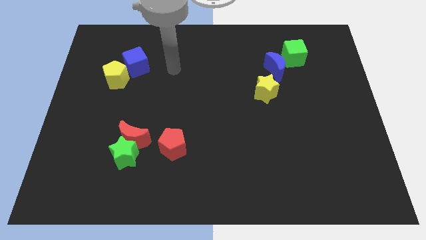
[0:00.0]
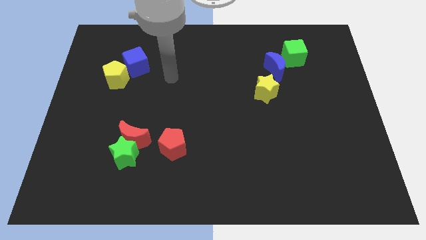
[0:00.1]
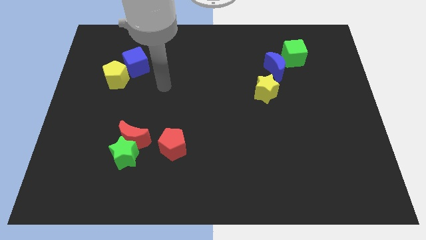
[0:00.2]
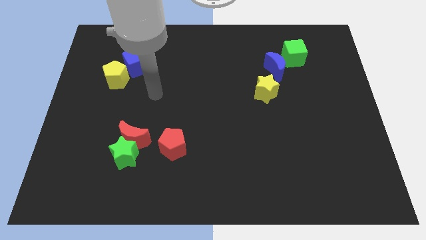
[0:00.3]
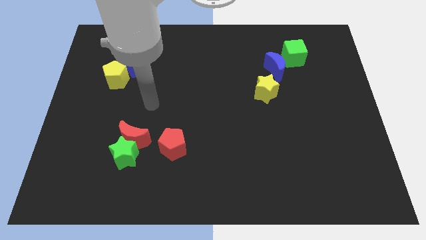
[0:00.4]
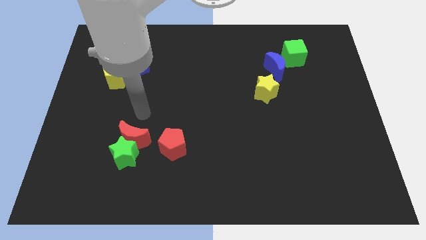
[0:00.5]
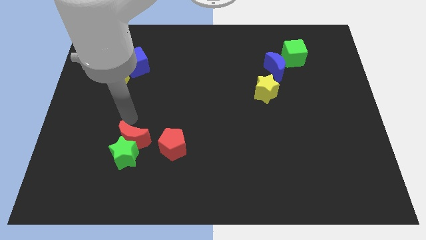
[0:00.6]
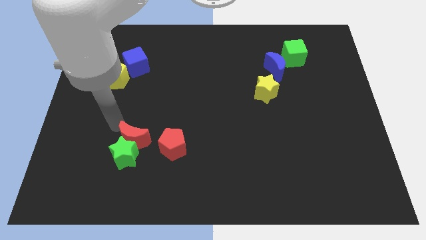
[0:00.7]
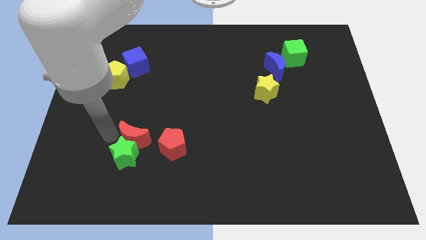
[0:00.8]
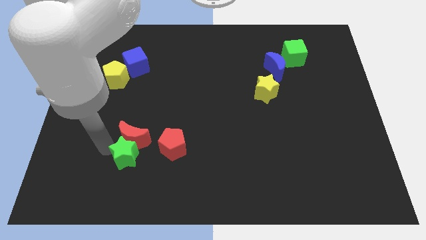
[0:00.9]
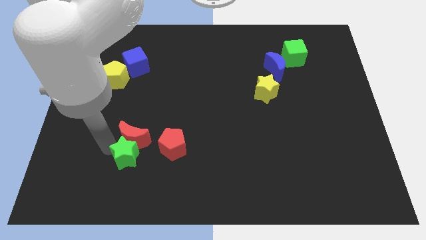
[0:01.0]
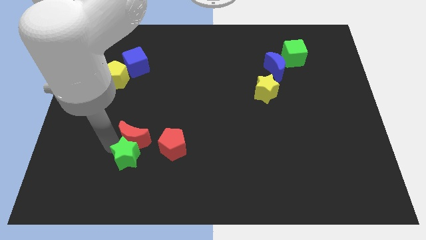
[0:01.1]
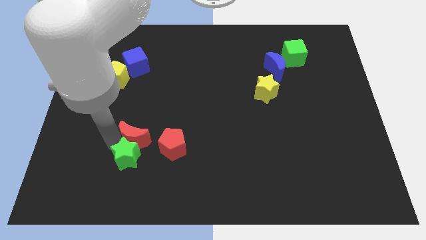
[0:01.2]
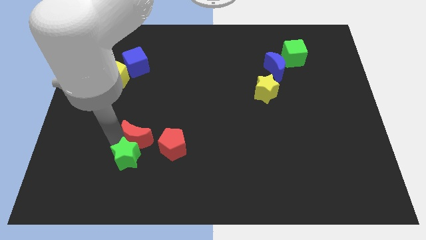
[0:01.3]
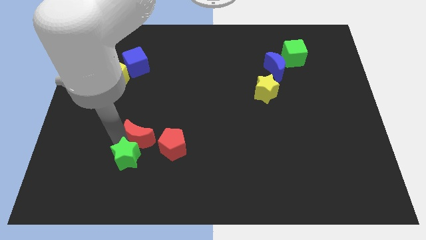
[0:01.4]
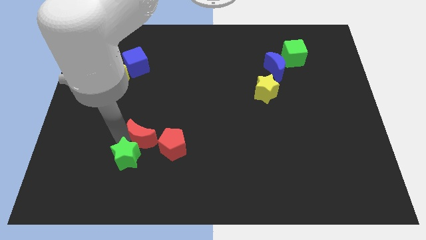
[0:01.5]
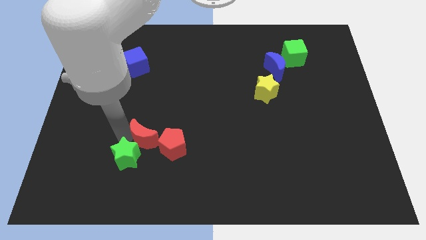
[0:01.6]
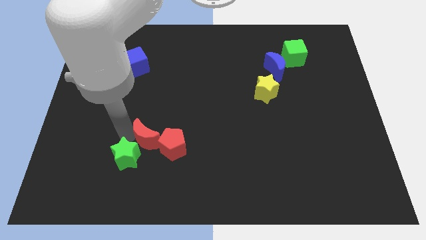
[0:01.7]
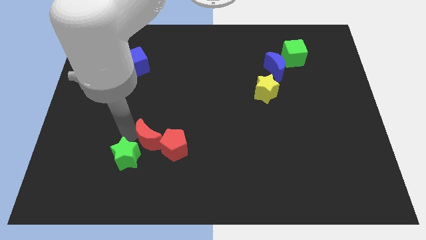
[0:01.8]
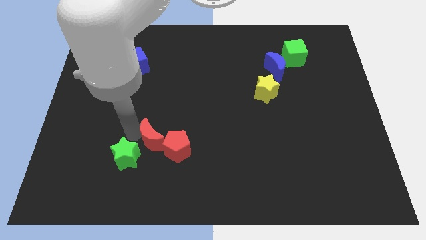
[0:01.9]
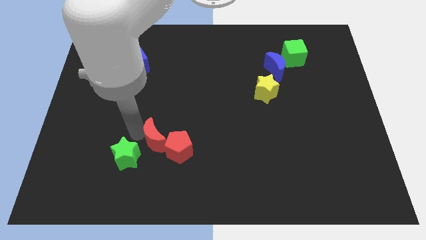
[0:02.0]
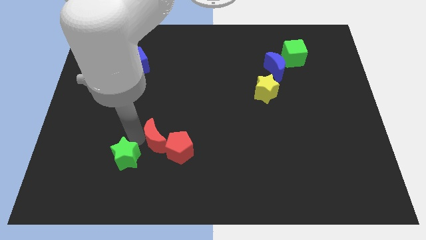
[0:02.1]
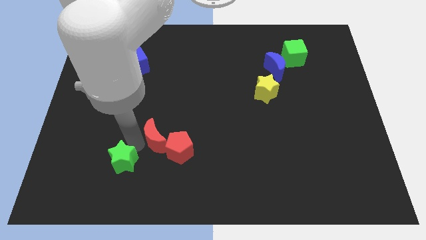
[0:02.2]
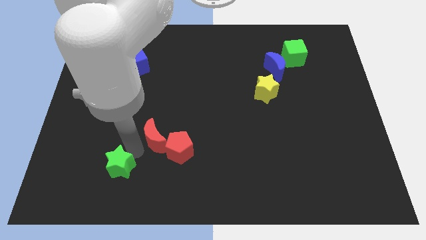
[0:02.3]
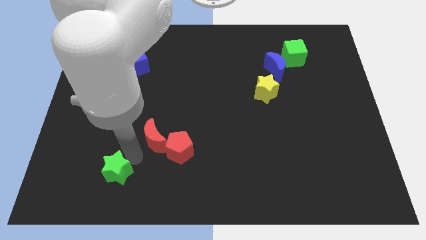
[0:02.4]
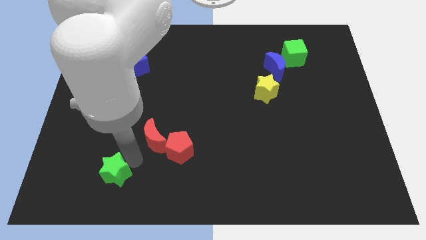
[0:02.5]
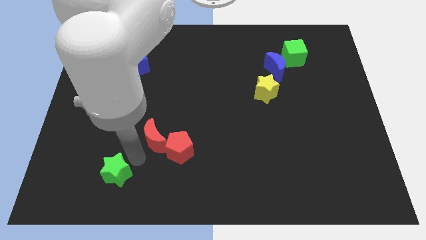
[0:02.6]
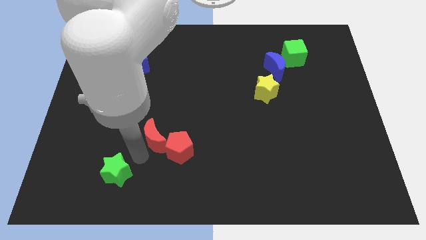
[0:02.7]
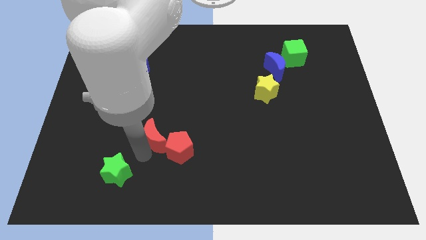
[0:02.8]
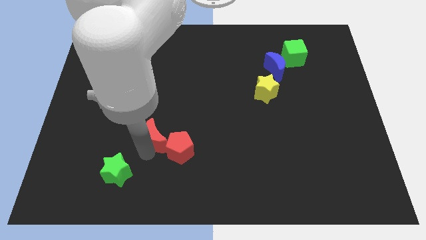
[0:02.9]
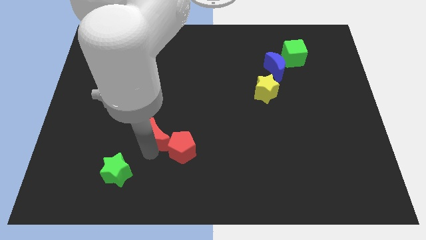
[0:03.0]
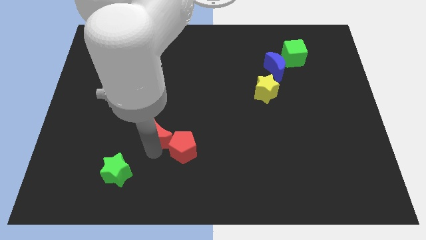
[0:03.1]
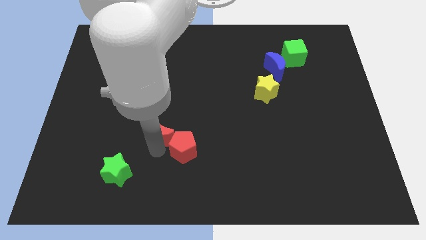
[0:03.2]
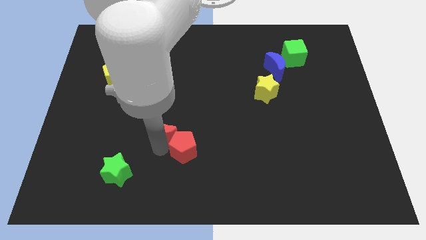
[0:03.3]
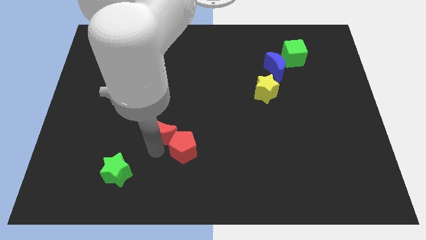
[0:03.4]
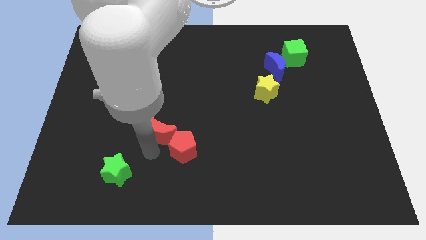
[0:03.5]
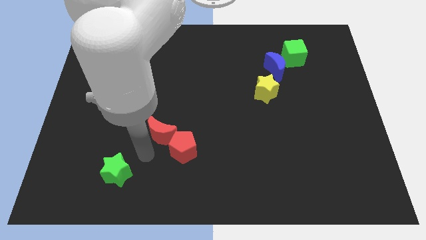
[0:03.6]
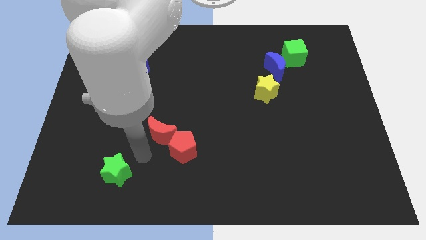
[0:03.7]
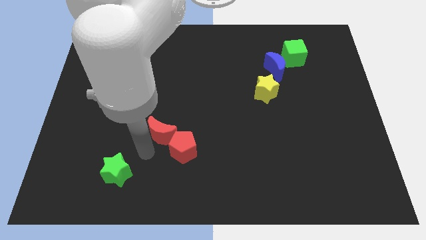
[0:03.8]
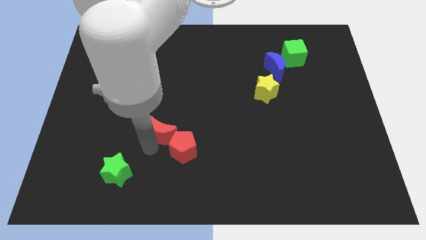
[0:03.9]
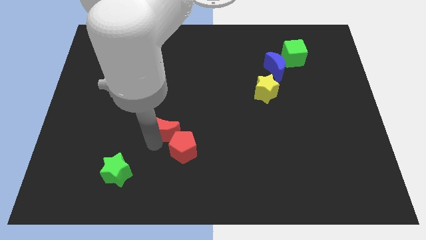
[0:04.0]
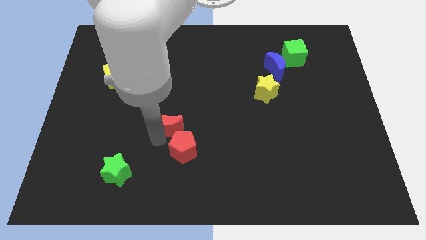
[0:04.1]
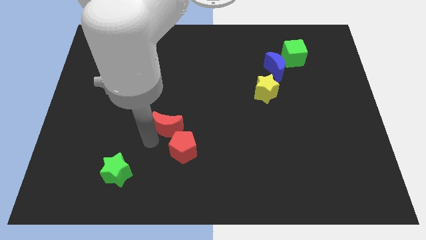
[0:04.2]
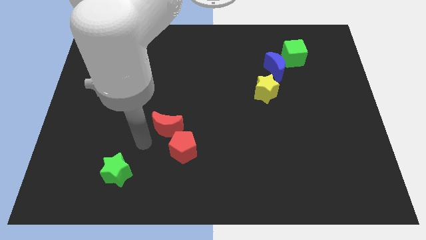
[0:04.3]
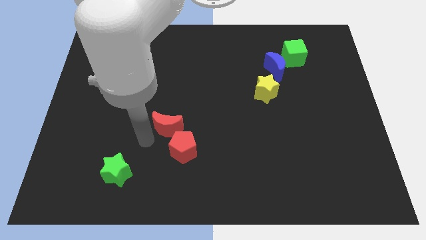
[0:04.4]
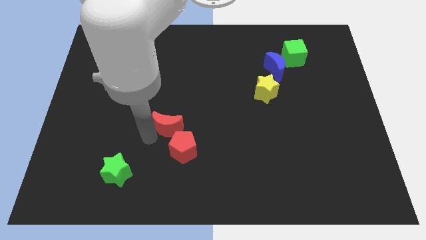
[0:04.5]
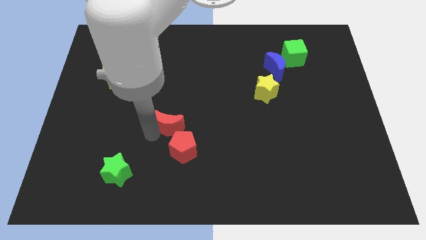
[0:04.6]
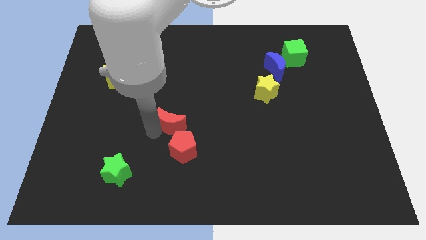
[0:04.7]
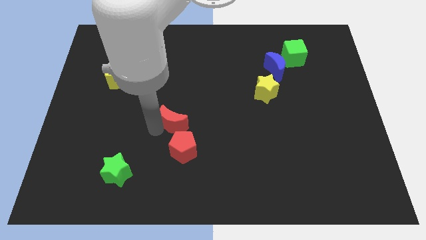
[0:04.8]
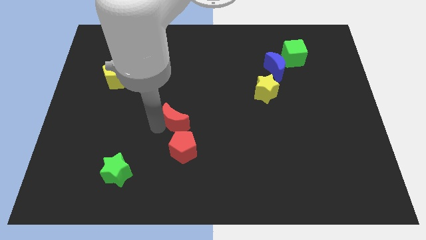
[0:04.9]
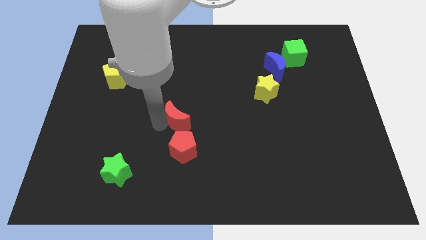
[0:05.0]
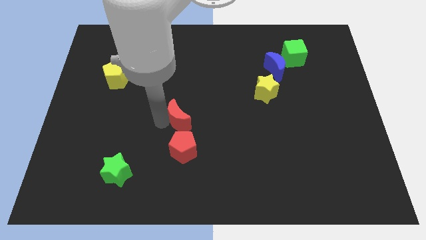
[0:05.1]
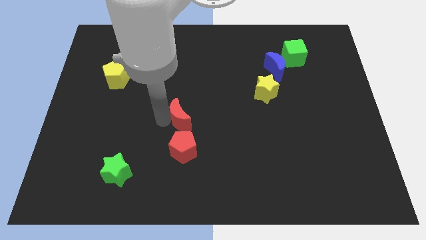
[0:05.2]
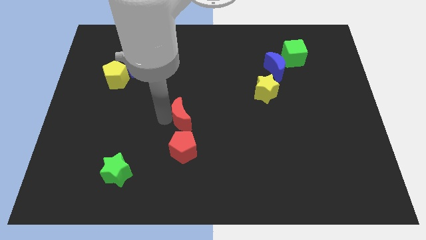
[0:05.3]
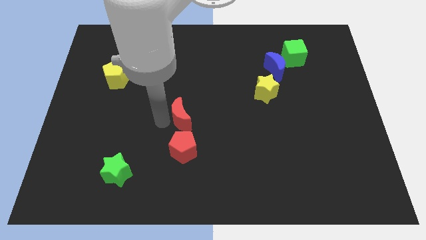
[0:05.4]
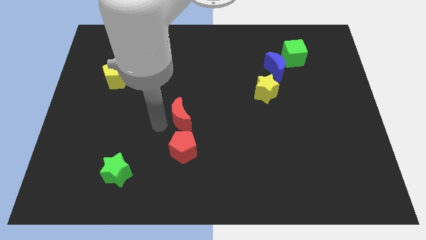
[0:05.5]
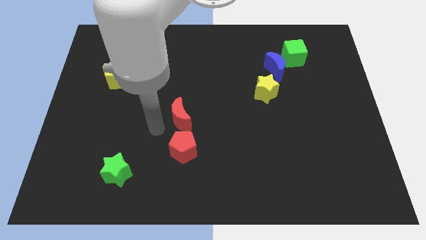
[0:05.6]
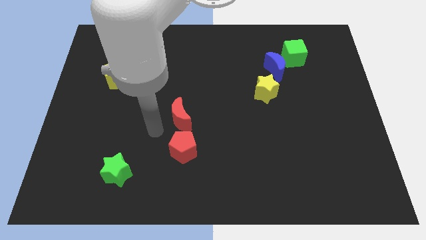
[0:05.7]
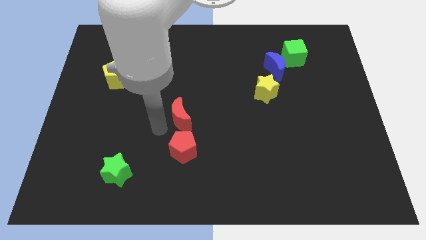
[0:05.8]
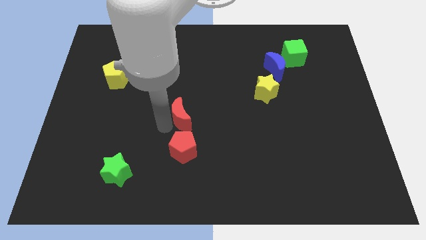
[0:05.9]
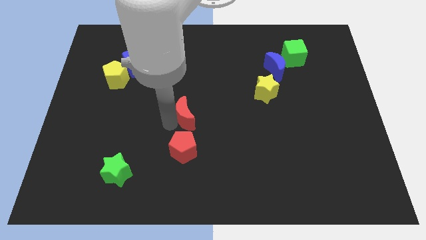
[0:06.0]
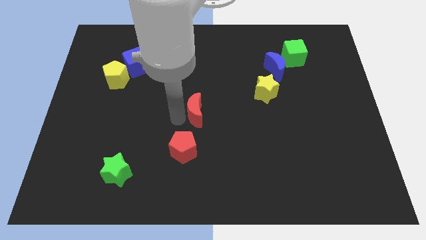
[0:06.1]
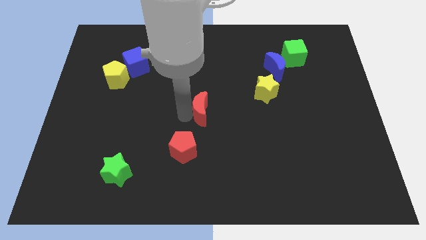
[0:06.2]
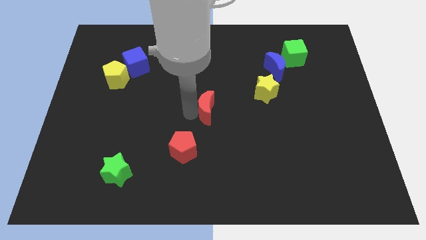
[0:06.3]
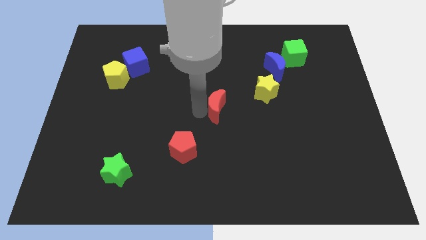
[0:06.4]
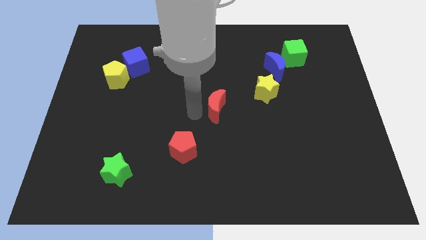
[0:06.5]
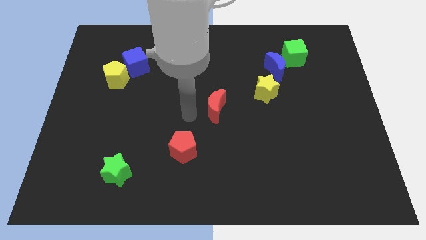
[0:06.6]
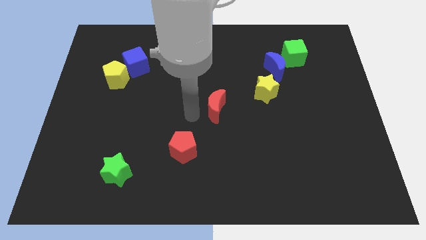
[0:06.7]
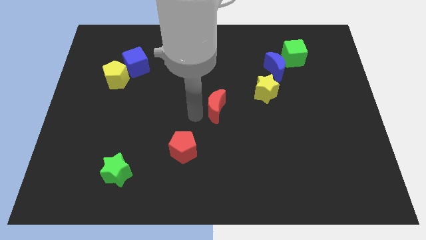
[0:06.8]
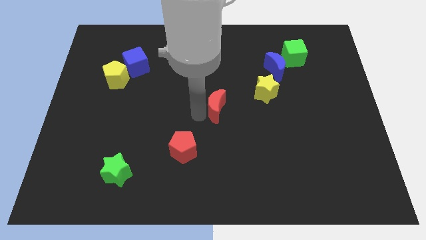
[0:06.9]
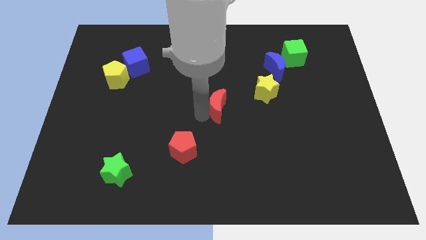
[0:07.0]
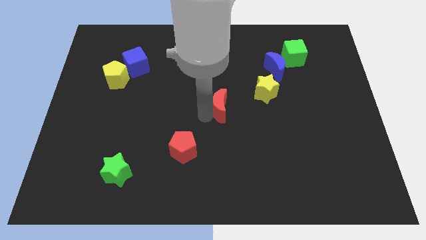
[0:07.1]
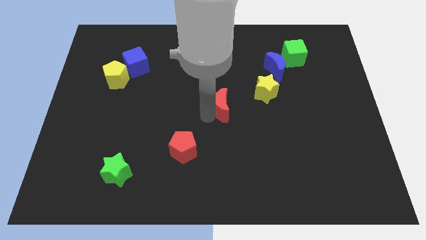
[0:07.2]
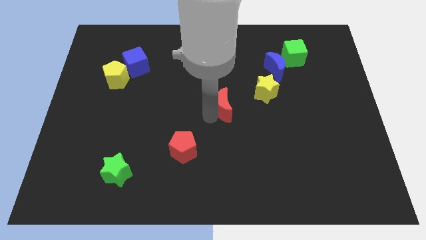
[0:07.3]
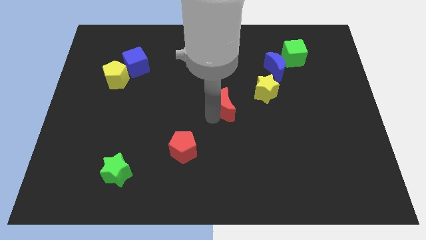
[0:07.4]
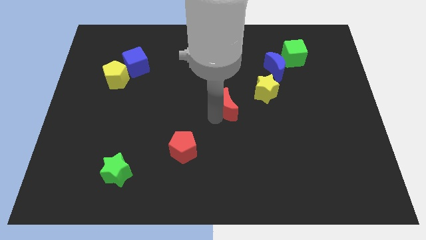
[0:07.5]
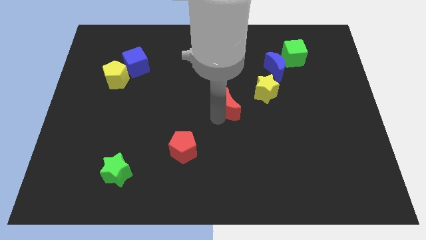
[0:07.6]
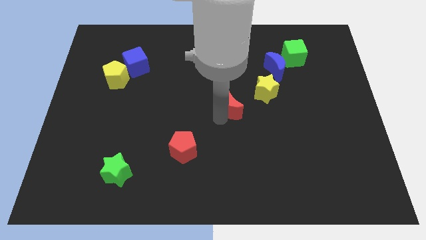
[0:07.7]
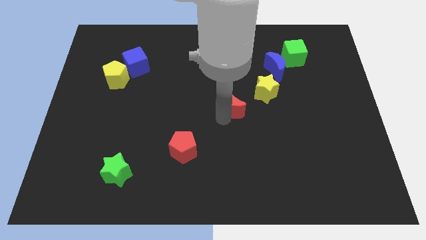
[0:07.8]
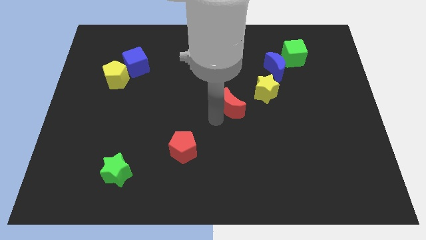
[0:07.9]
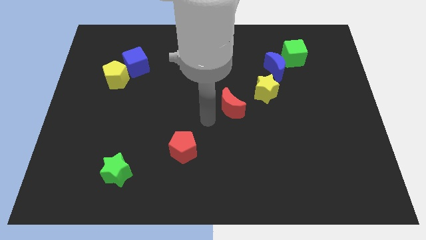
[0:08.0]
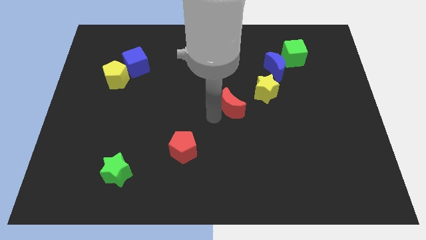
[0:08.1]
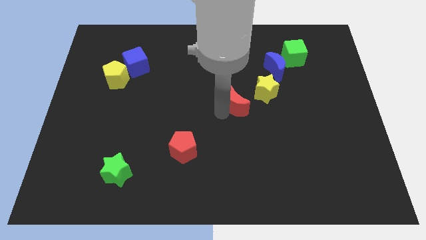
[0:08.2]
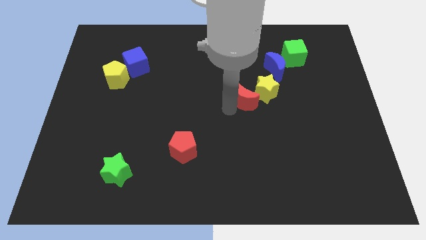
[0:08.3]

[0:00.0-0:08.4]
put the red moon close to the yellow star
